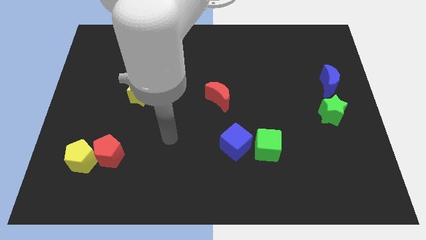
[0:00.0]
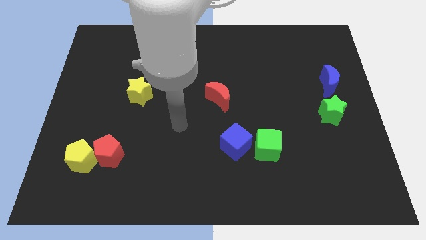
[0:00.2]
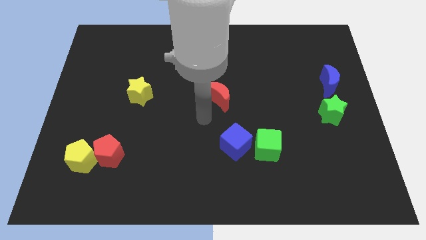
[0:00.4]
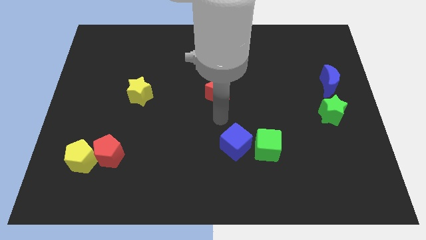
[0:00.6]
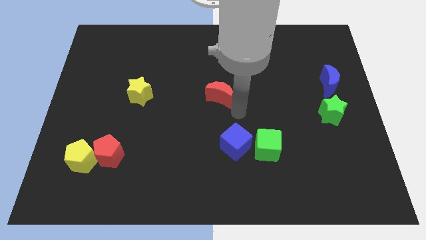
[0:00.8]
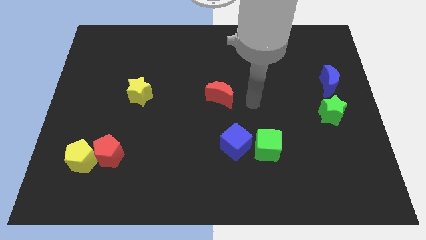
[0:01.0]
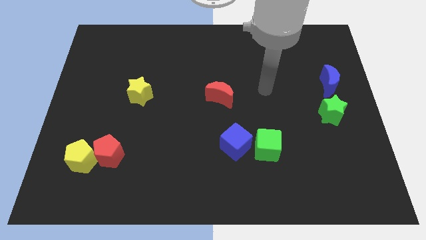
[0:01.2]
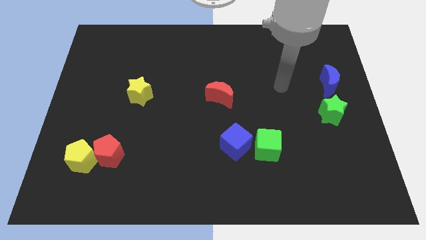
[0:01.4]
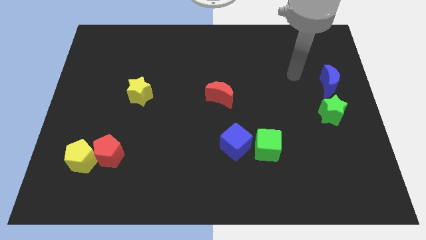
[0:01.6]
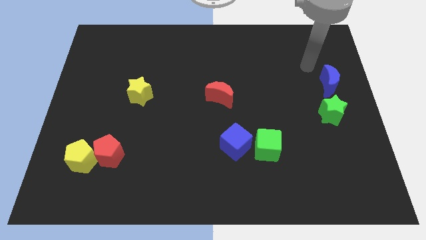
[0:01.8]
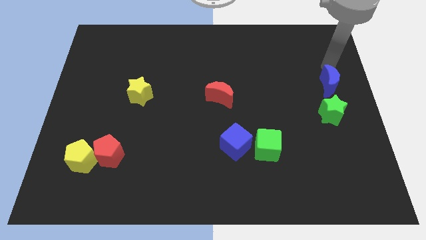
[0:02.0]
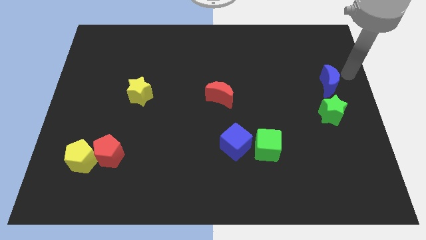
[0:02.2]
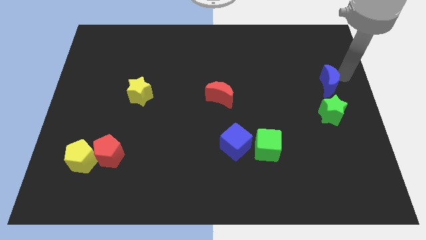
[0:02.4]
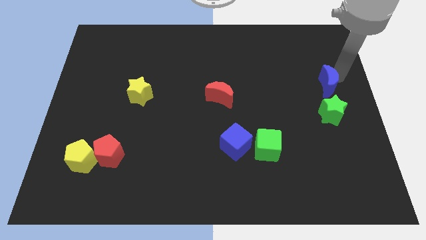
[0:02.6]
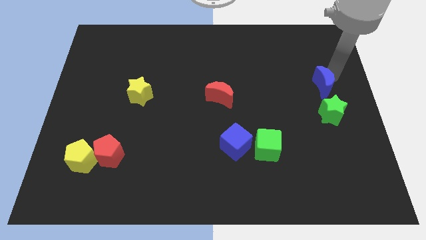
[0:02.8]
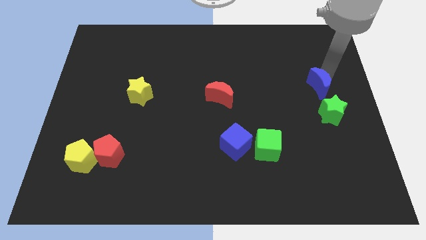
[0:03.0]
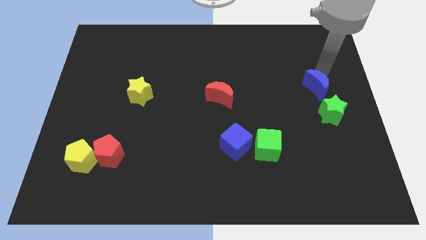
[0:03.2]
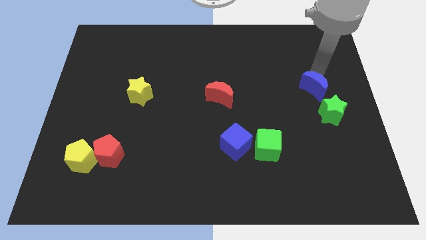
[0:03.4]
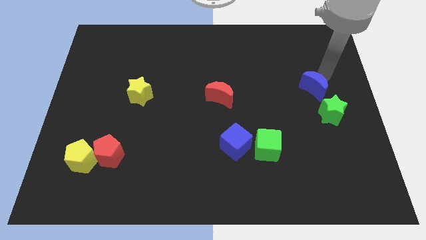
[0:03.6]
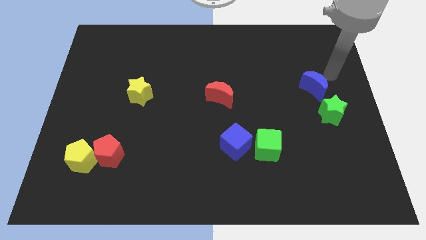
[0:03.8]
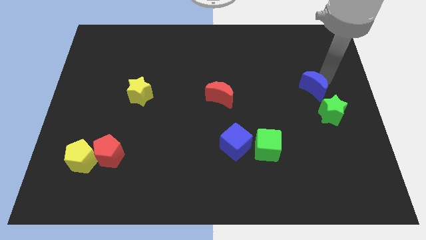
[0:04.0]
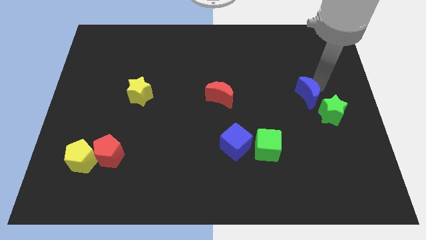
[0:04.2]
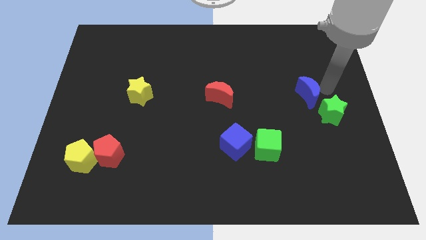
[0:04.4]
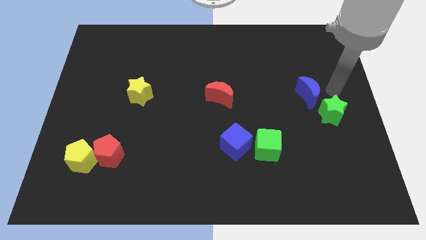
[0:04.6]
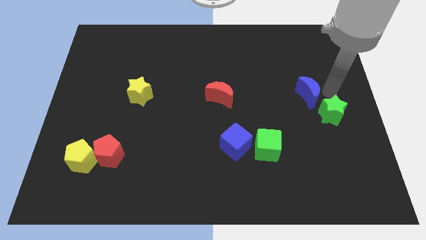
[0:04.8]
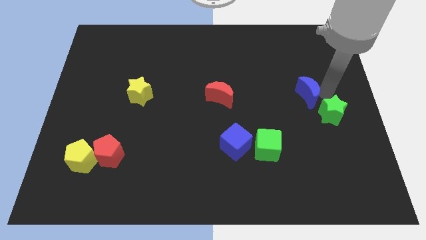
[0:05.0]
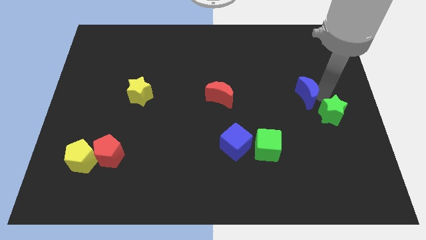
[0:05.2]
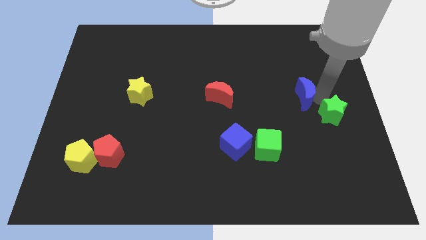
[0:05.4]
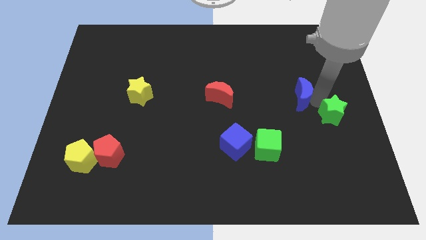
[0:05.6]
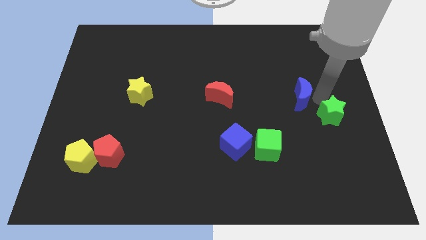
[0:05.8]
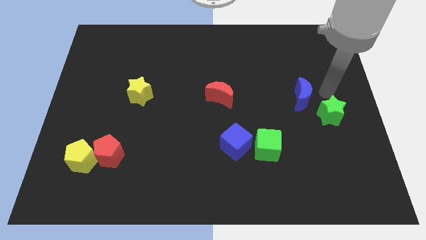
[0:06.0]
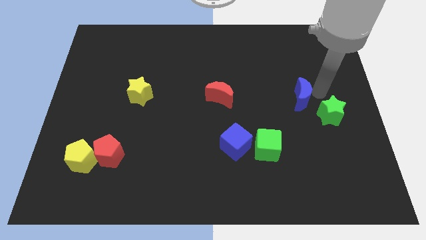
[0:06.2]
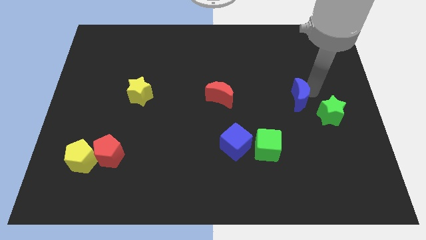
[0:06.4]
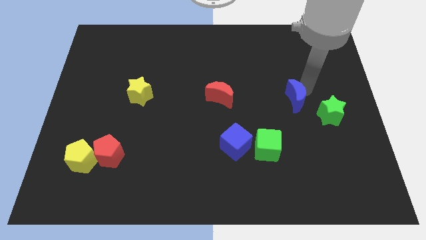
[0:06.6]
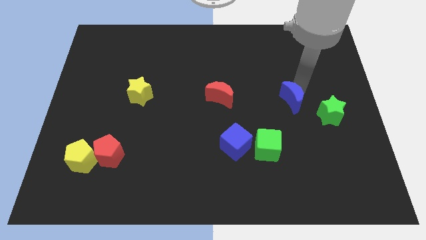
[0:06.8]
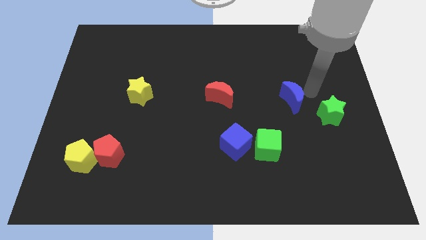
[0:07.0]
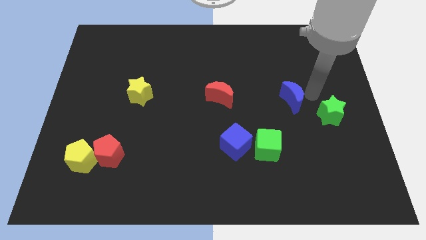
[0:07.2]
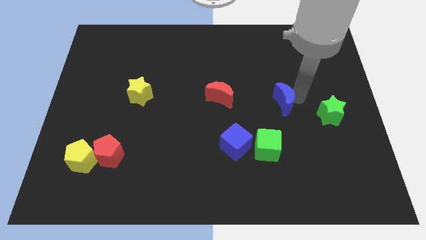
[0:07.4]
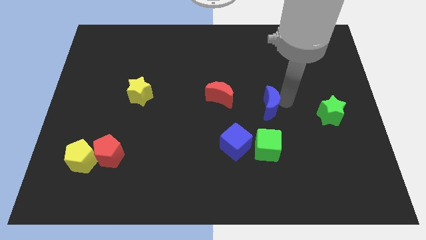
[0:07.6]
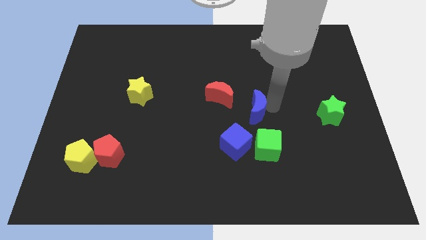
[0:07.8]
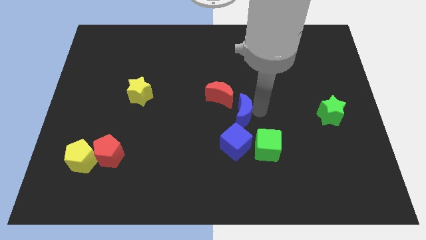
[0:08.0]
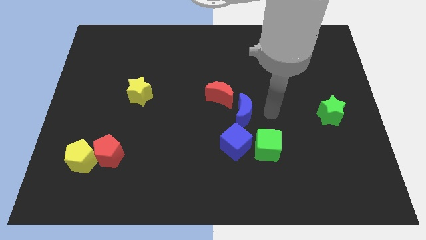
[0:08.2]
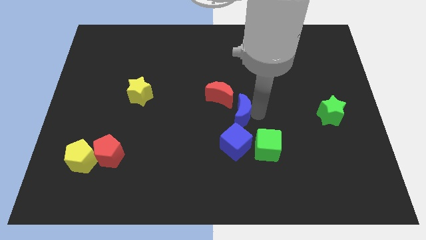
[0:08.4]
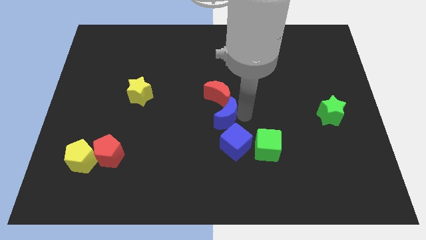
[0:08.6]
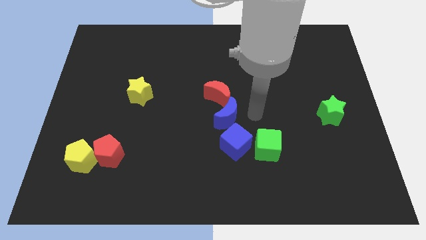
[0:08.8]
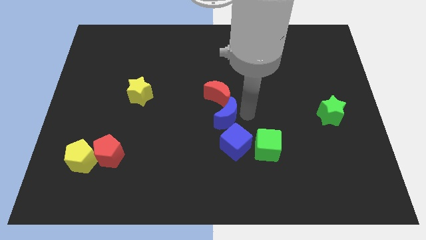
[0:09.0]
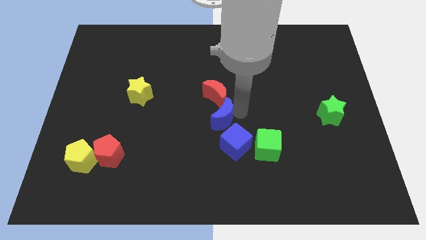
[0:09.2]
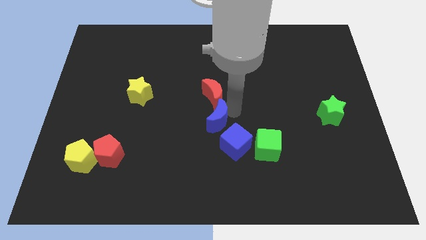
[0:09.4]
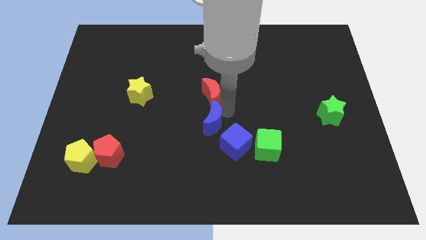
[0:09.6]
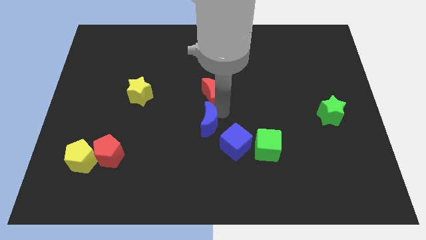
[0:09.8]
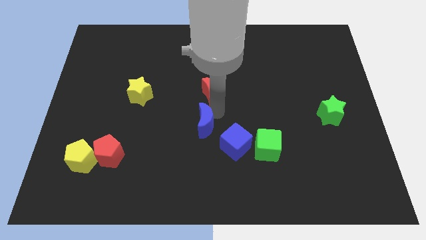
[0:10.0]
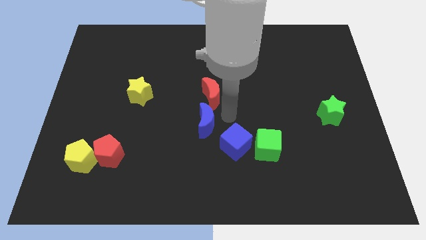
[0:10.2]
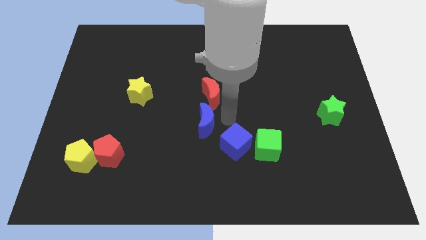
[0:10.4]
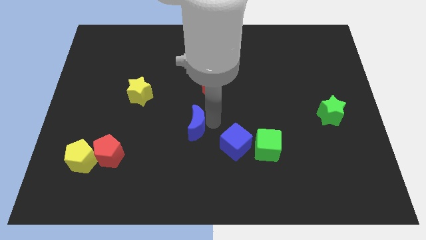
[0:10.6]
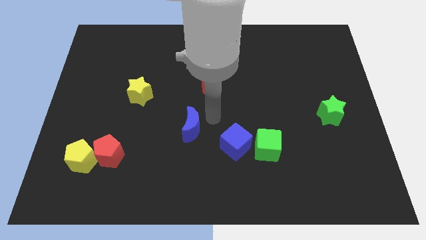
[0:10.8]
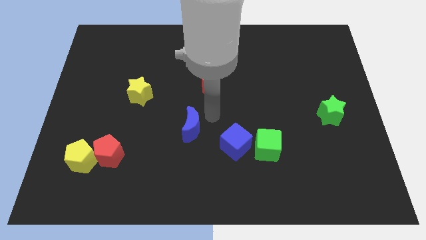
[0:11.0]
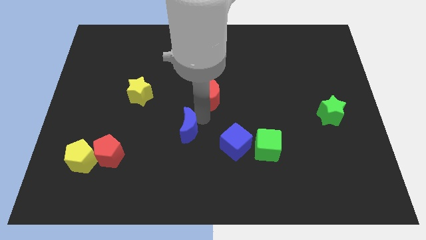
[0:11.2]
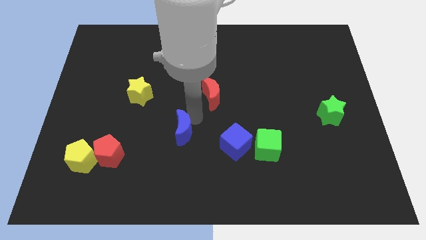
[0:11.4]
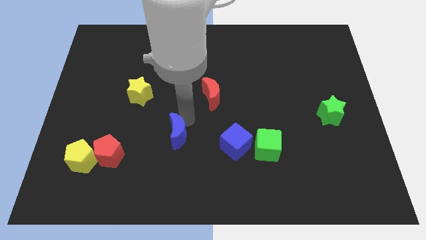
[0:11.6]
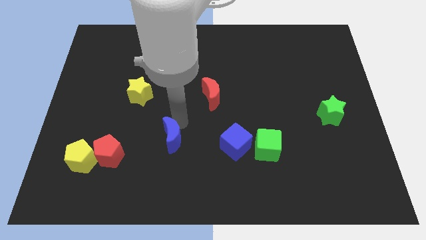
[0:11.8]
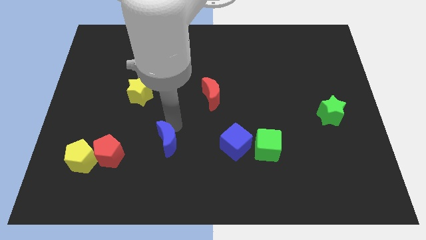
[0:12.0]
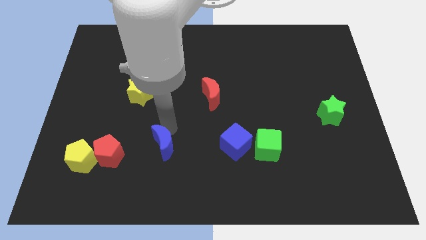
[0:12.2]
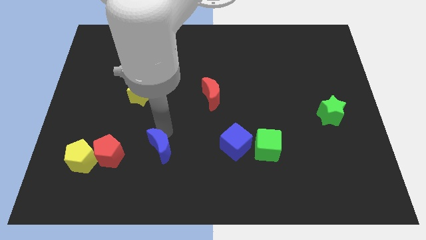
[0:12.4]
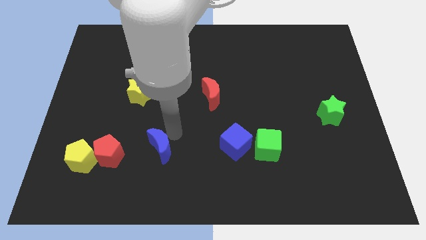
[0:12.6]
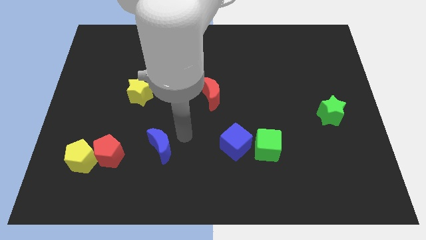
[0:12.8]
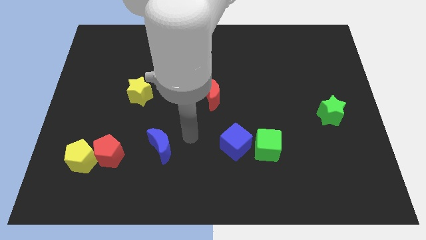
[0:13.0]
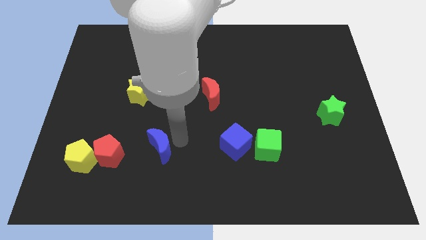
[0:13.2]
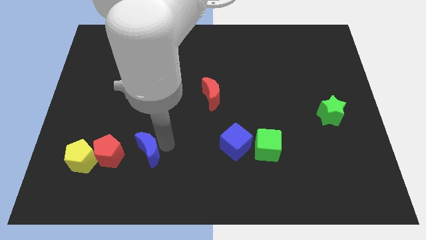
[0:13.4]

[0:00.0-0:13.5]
push the blue moon to the right of the yellow pentagon
